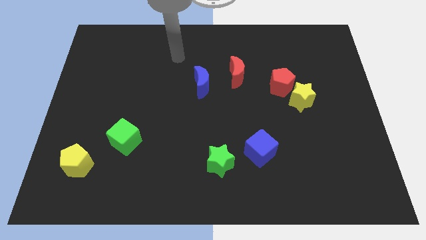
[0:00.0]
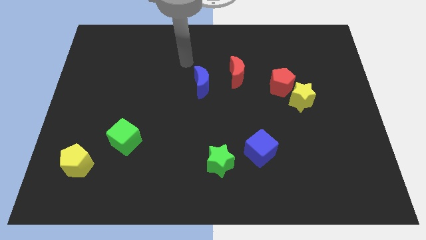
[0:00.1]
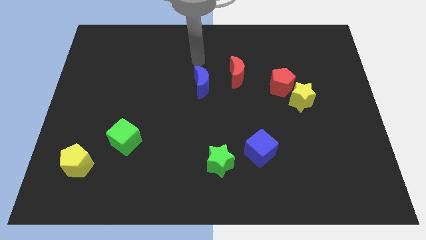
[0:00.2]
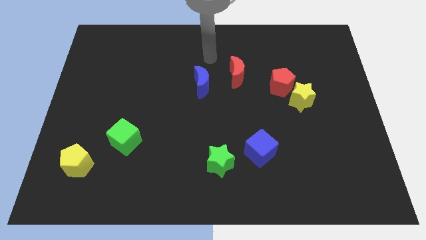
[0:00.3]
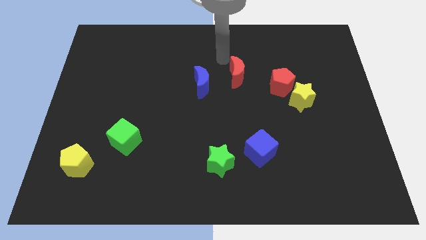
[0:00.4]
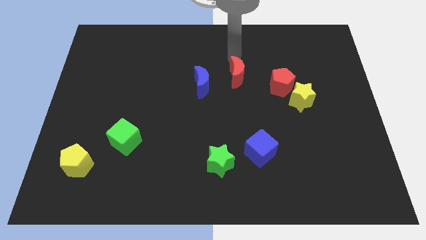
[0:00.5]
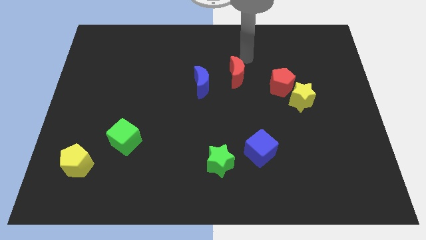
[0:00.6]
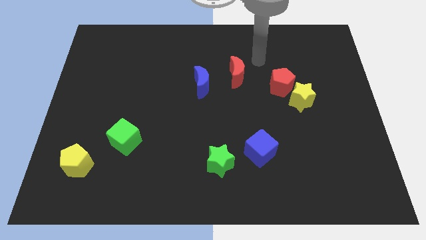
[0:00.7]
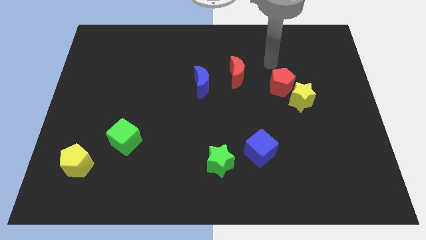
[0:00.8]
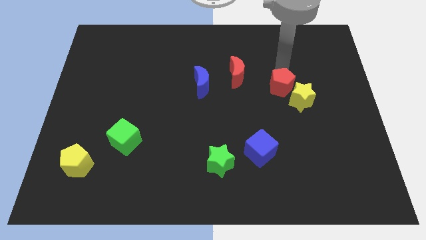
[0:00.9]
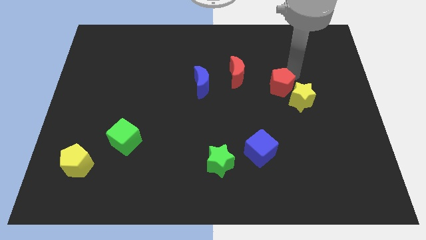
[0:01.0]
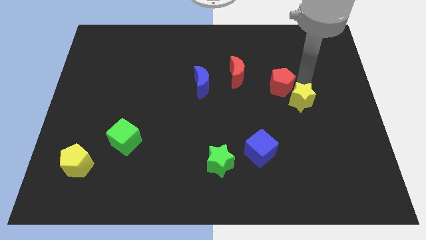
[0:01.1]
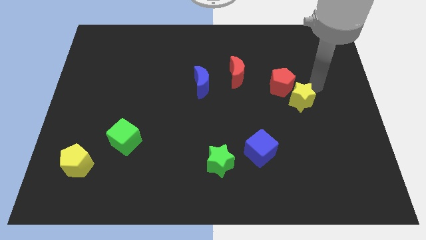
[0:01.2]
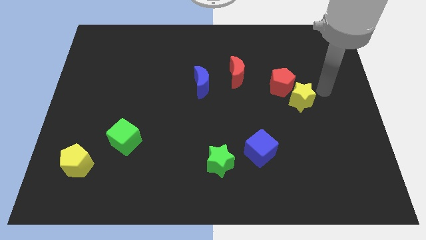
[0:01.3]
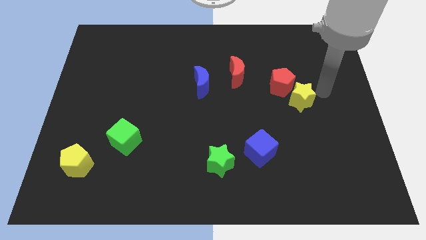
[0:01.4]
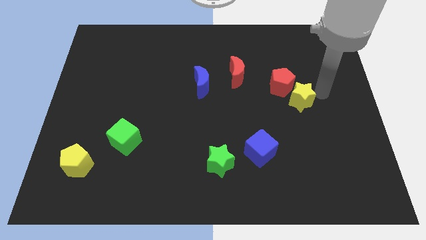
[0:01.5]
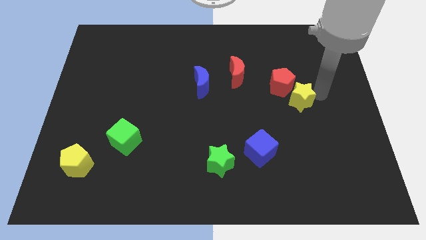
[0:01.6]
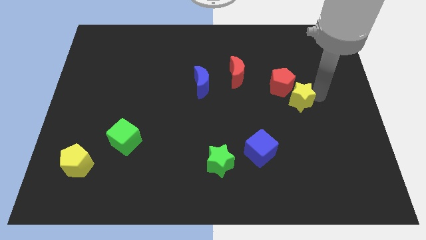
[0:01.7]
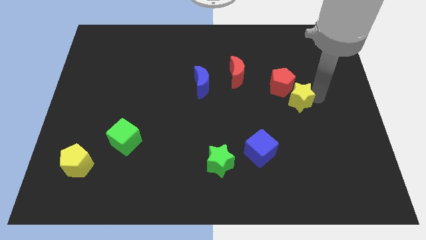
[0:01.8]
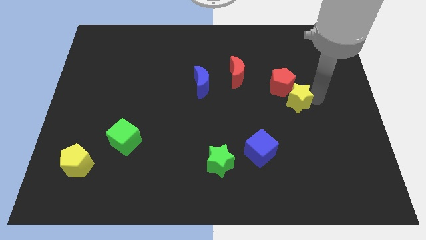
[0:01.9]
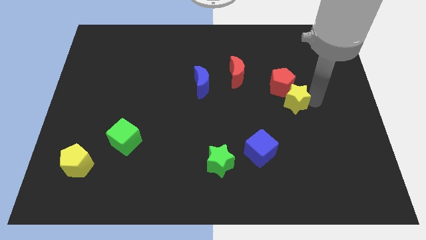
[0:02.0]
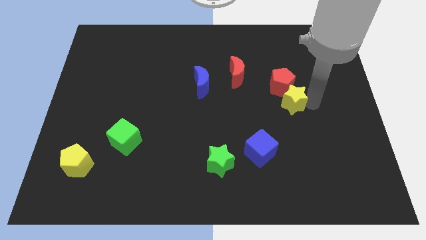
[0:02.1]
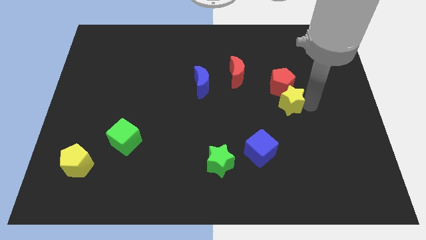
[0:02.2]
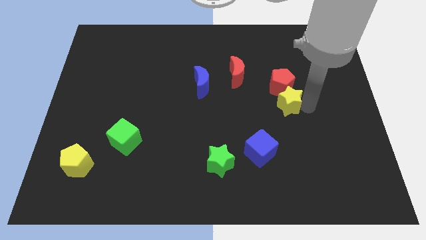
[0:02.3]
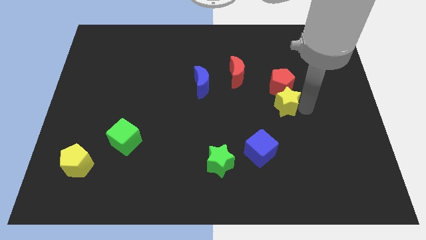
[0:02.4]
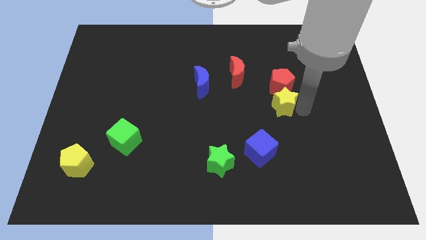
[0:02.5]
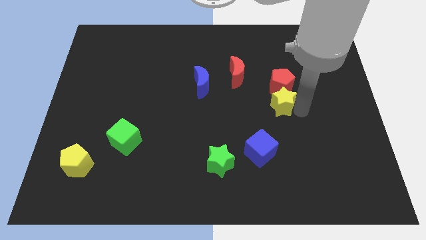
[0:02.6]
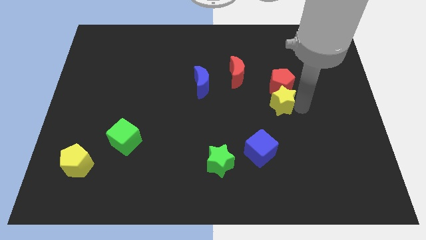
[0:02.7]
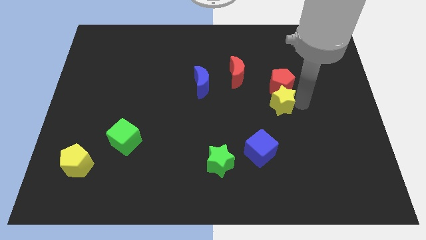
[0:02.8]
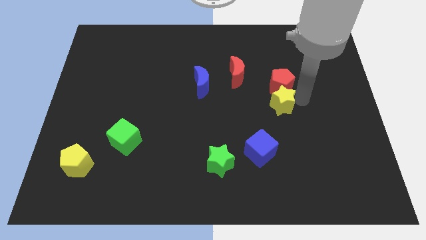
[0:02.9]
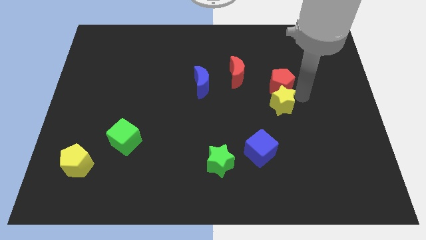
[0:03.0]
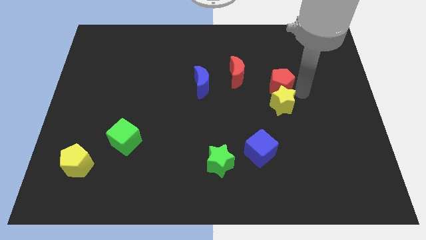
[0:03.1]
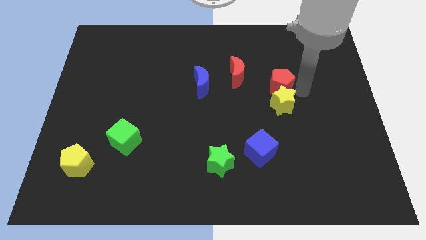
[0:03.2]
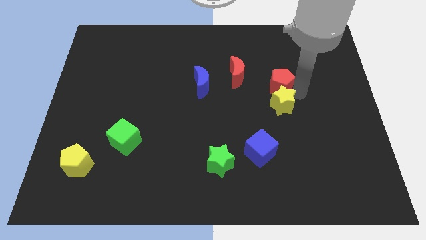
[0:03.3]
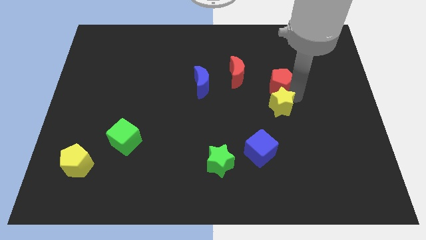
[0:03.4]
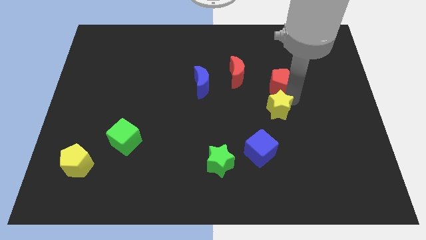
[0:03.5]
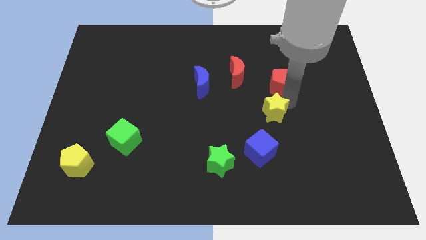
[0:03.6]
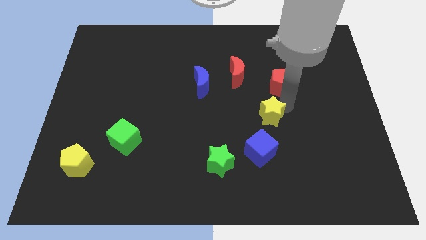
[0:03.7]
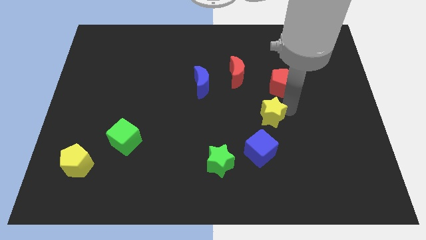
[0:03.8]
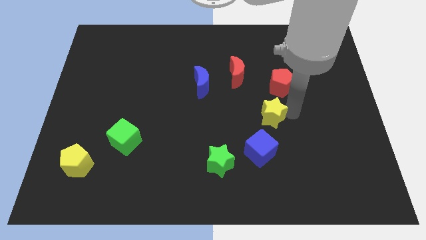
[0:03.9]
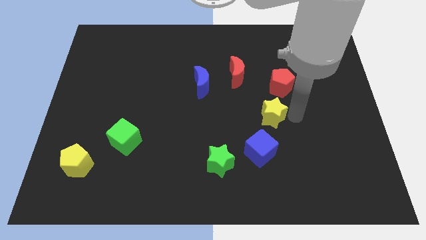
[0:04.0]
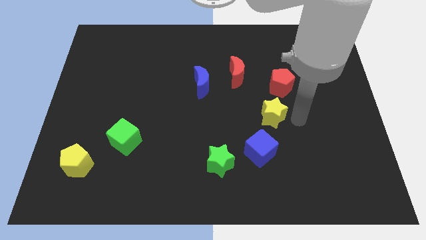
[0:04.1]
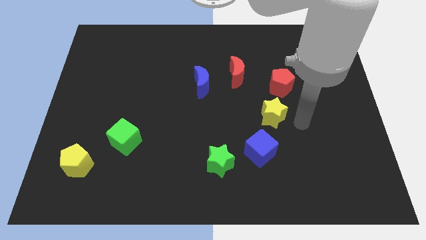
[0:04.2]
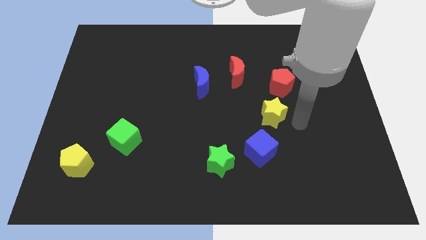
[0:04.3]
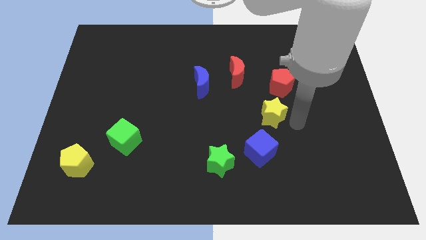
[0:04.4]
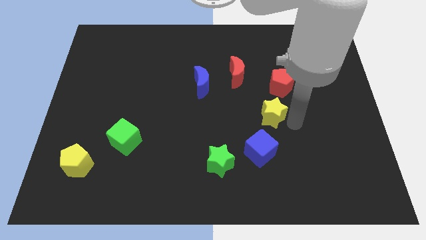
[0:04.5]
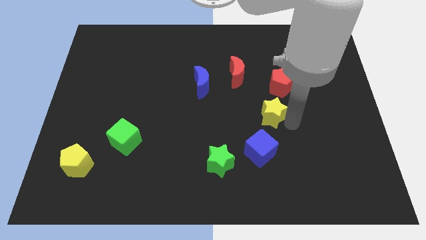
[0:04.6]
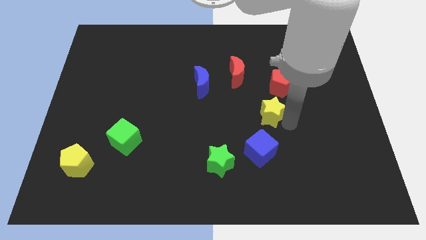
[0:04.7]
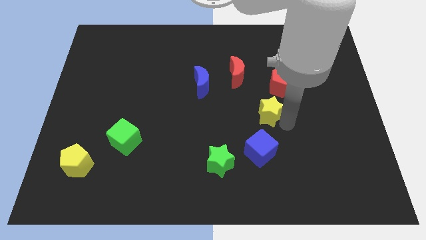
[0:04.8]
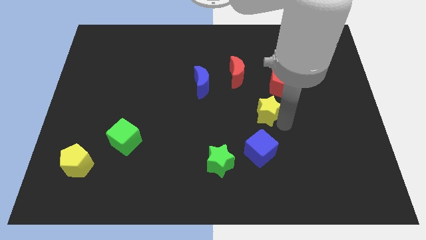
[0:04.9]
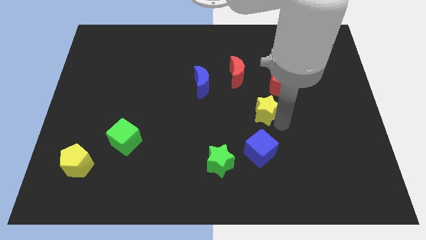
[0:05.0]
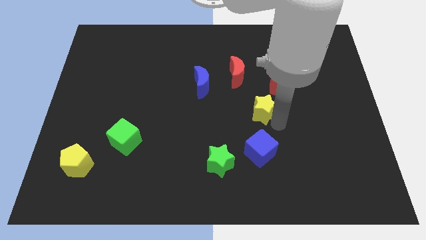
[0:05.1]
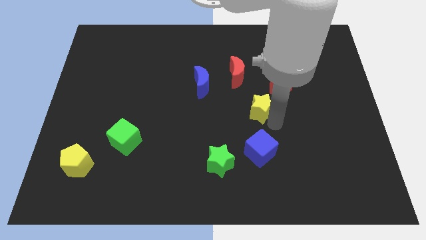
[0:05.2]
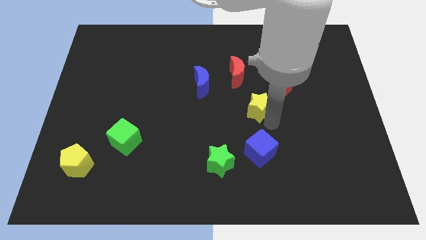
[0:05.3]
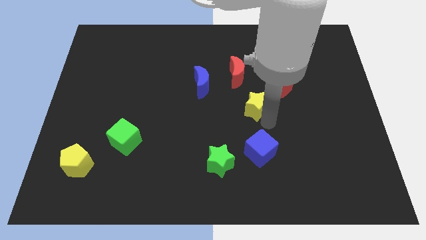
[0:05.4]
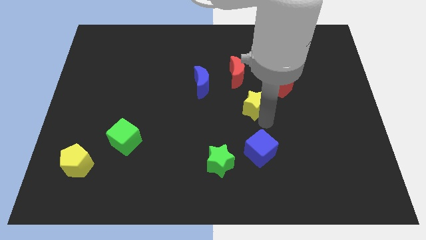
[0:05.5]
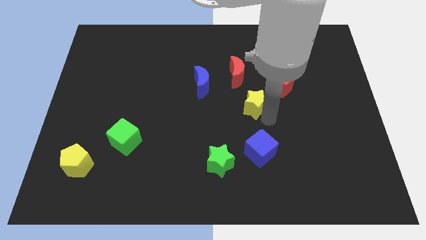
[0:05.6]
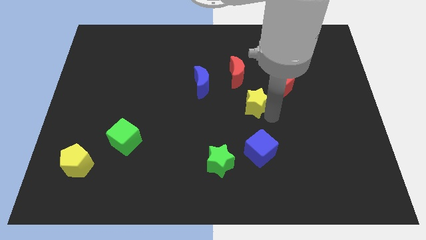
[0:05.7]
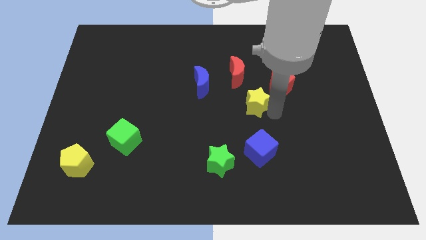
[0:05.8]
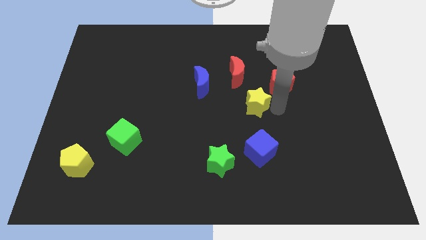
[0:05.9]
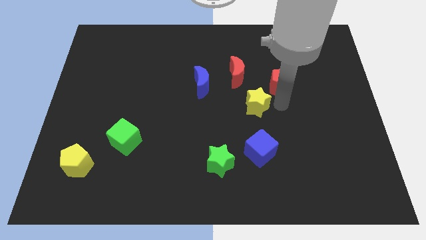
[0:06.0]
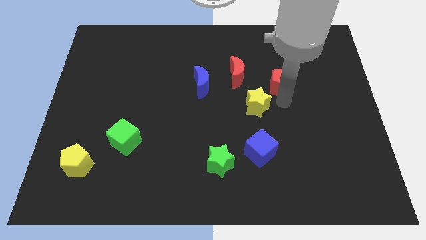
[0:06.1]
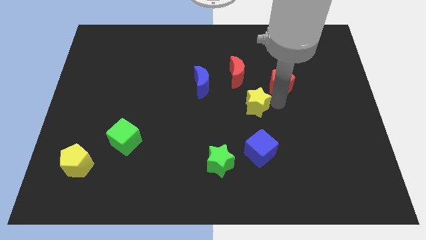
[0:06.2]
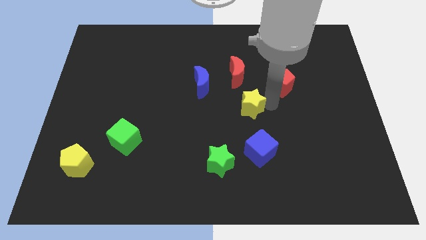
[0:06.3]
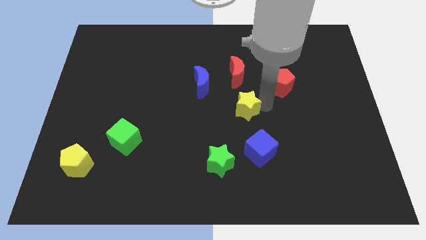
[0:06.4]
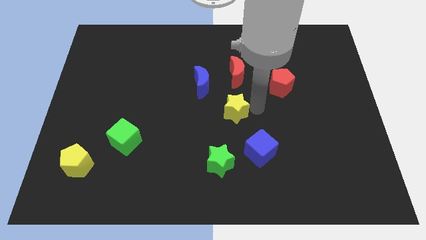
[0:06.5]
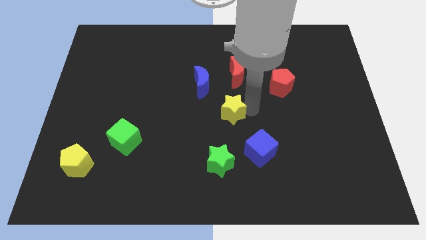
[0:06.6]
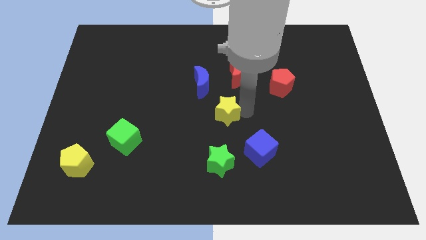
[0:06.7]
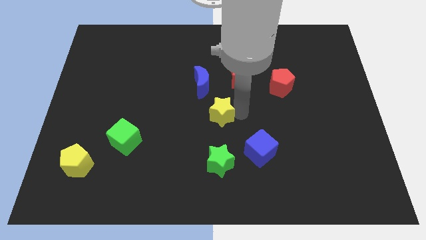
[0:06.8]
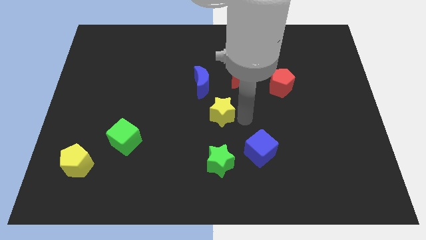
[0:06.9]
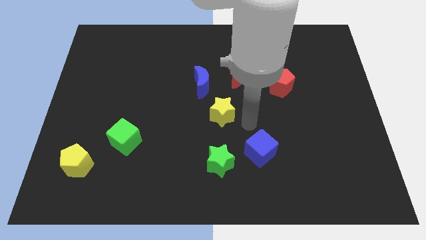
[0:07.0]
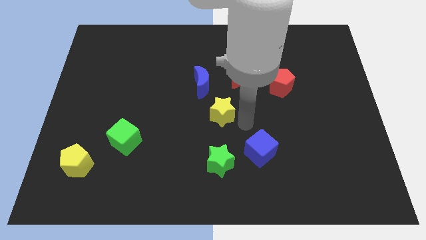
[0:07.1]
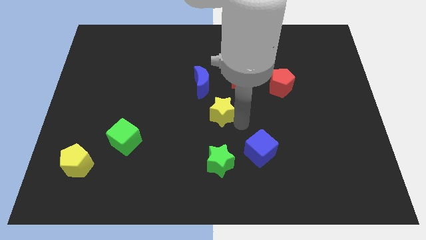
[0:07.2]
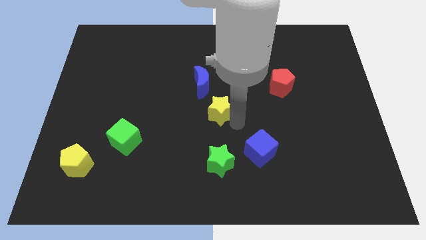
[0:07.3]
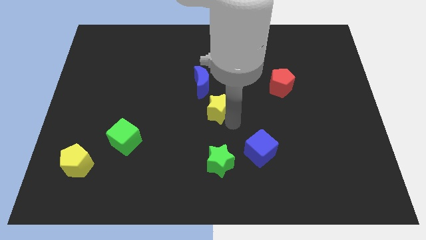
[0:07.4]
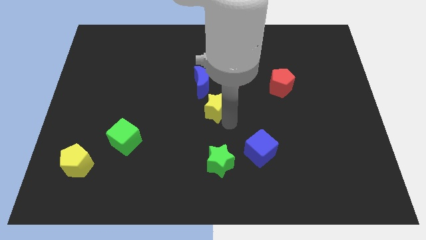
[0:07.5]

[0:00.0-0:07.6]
move the yellow star left

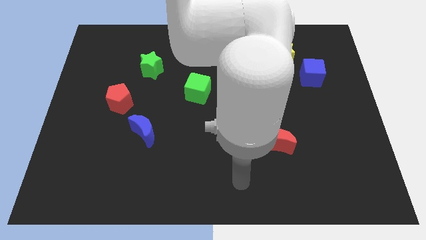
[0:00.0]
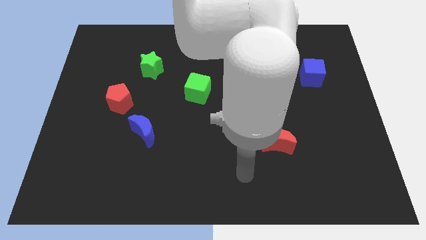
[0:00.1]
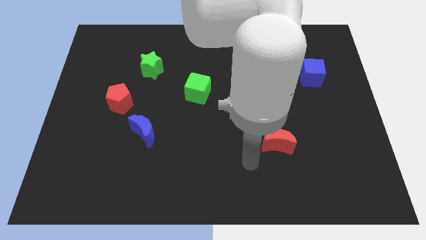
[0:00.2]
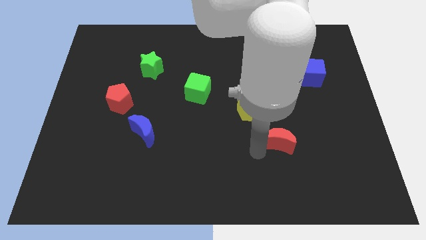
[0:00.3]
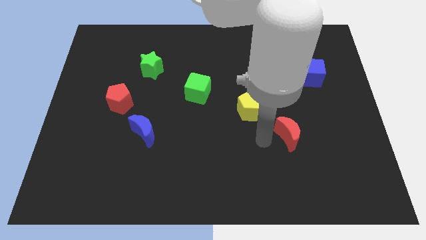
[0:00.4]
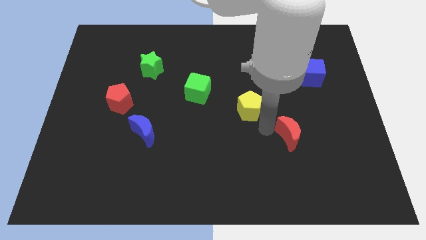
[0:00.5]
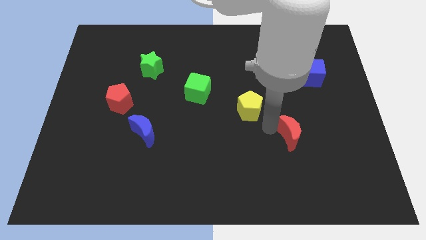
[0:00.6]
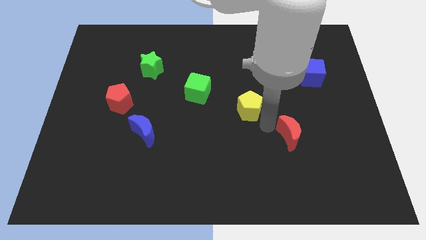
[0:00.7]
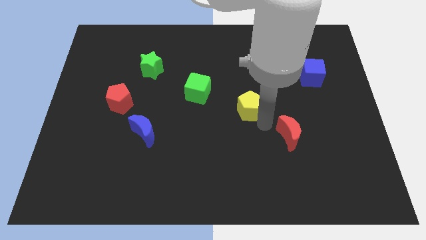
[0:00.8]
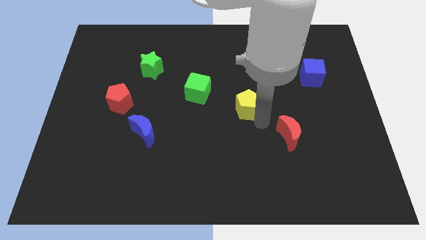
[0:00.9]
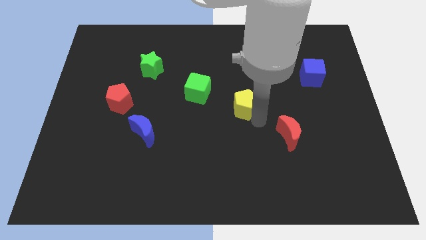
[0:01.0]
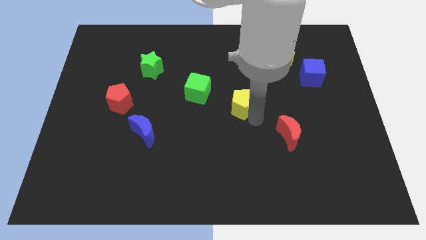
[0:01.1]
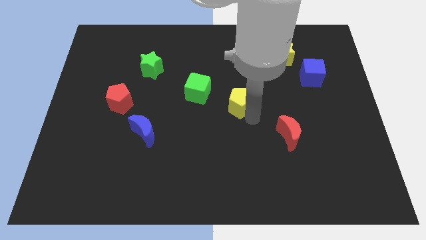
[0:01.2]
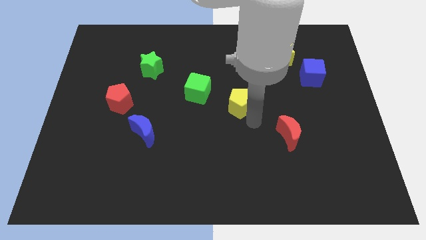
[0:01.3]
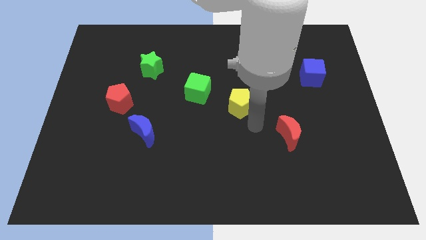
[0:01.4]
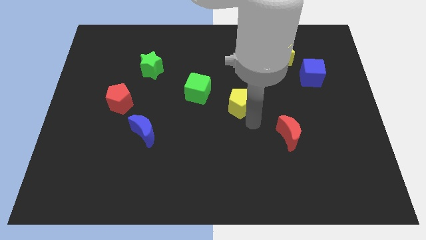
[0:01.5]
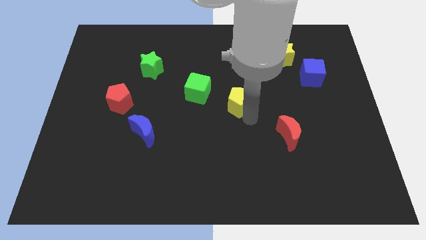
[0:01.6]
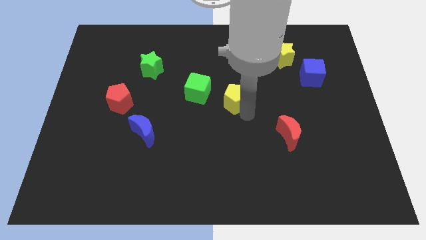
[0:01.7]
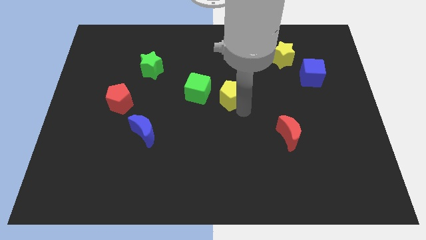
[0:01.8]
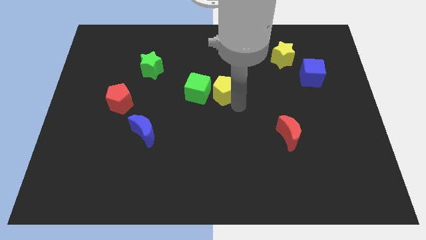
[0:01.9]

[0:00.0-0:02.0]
slide the yellow pentagon a little upwards and left diagonally
